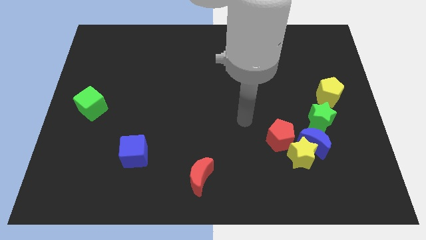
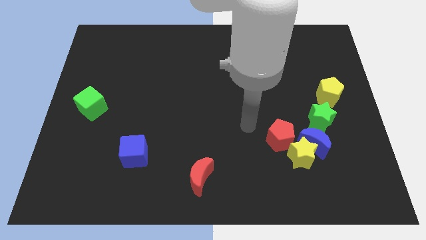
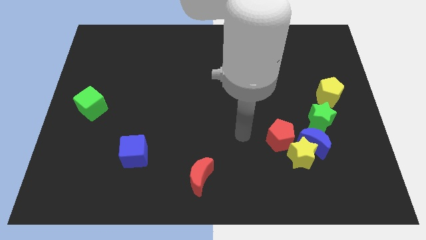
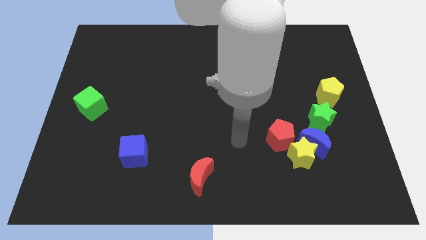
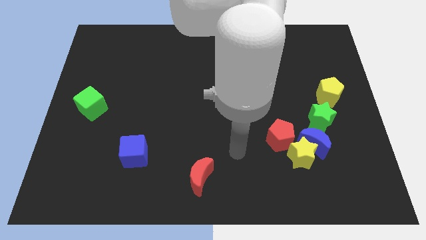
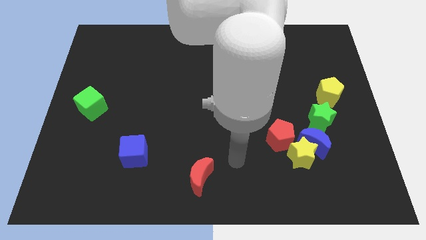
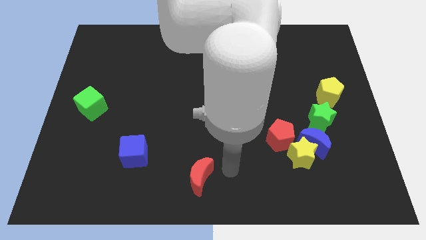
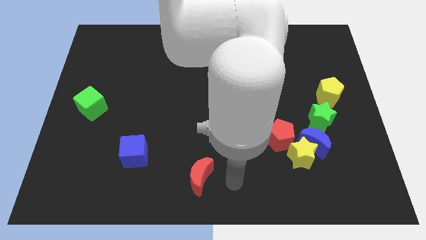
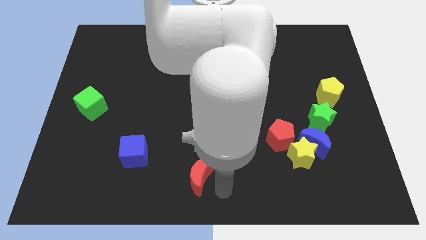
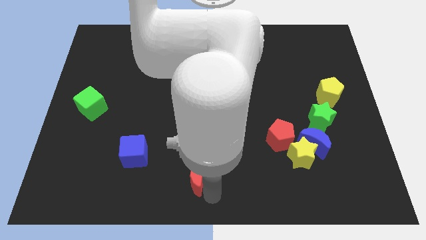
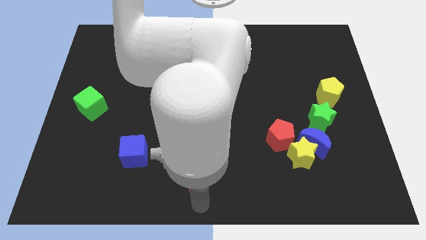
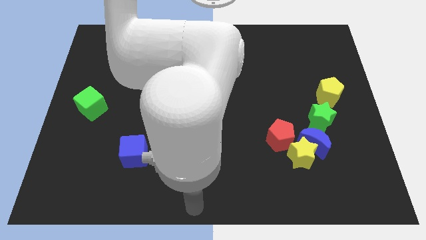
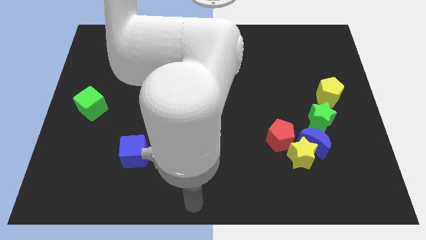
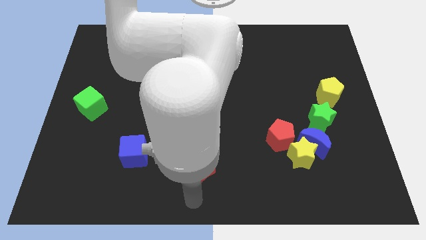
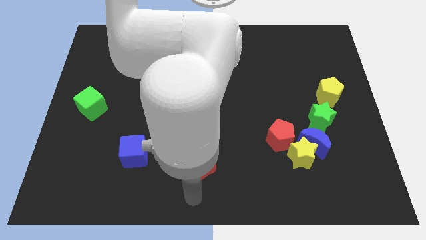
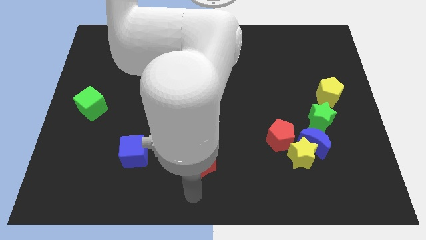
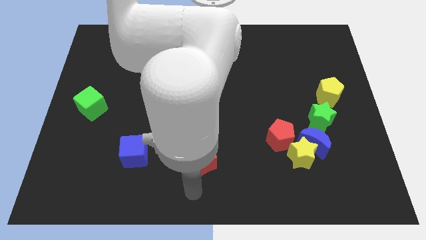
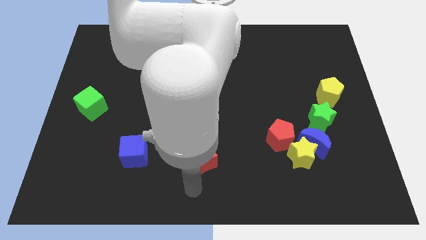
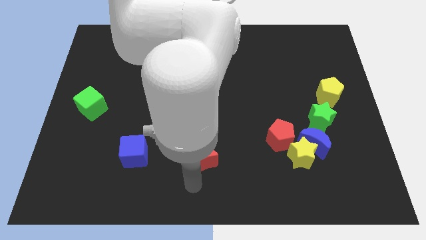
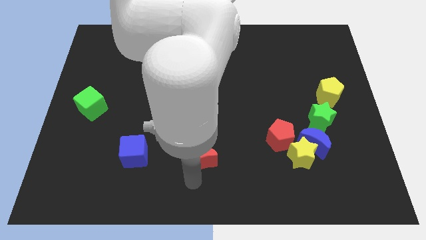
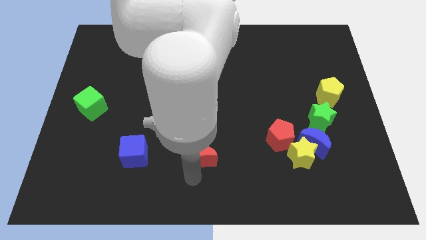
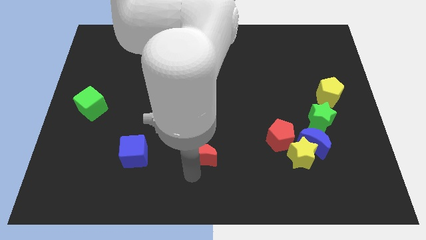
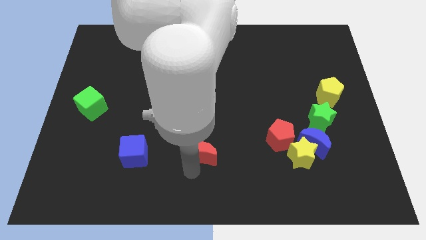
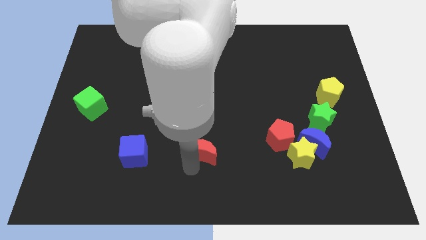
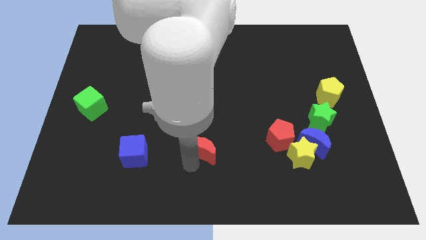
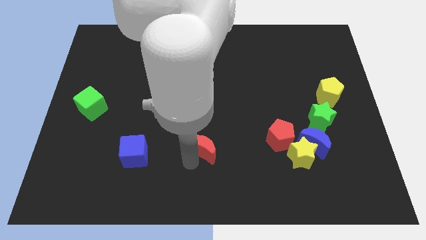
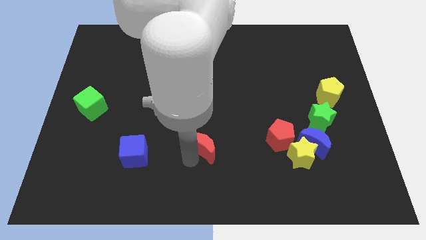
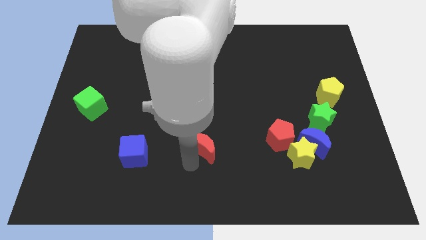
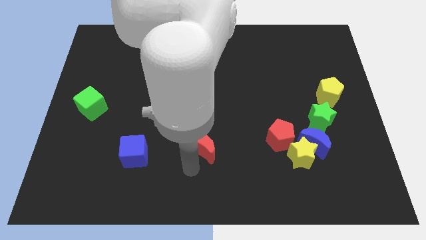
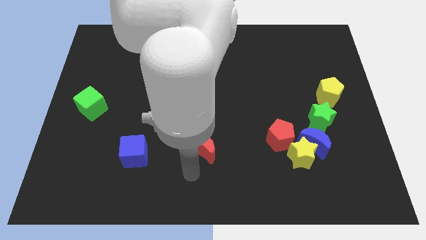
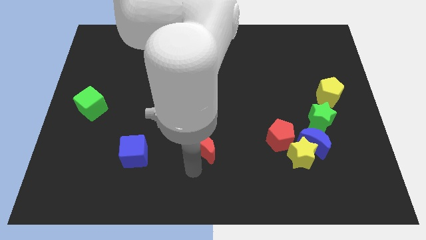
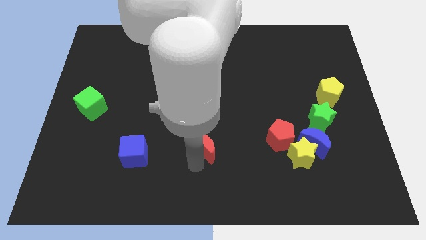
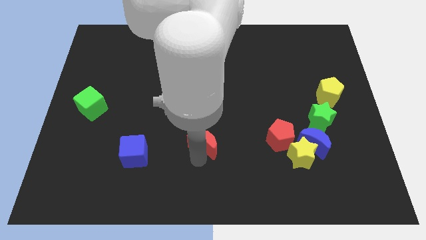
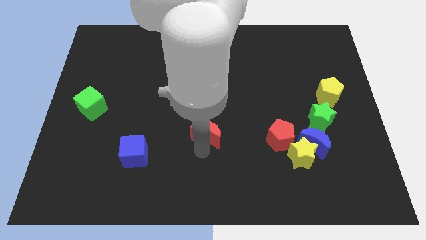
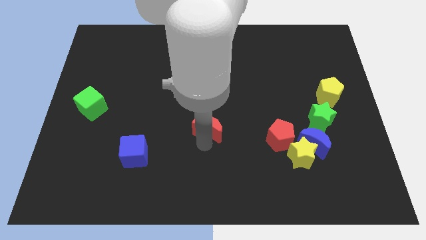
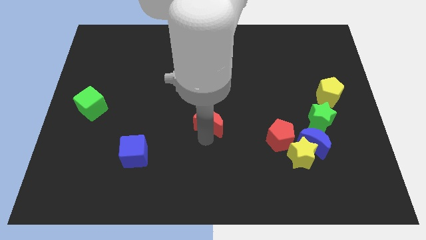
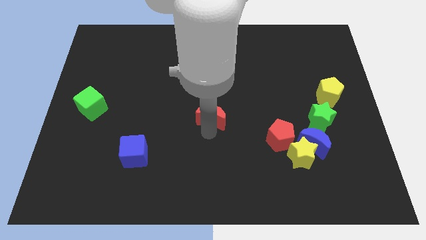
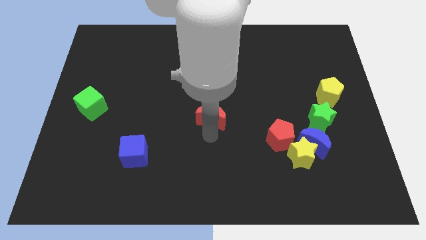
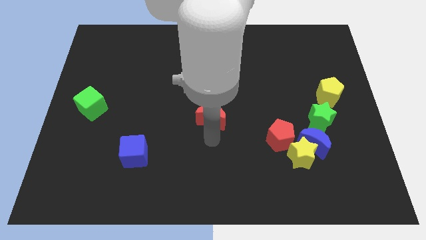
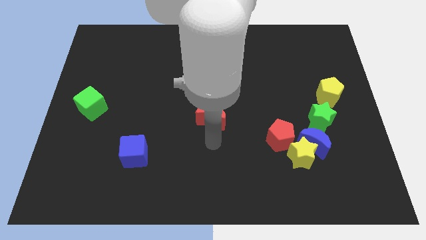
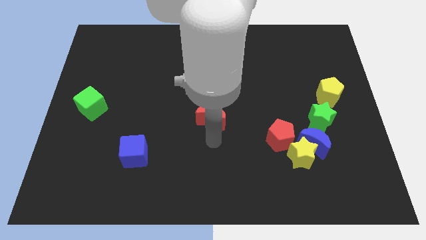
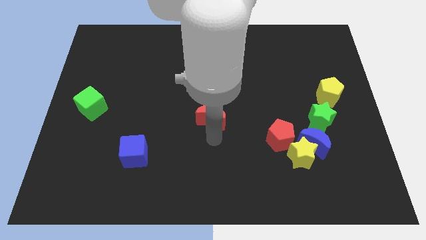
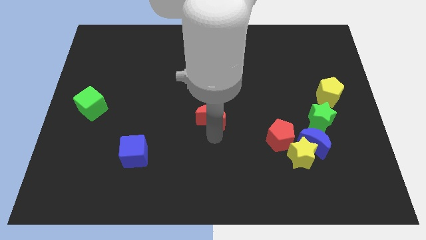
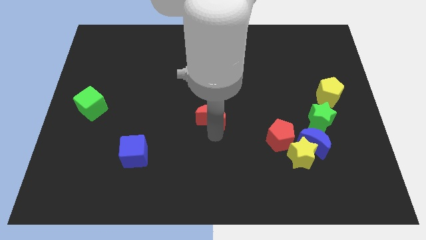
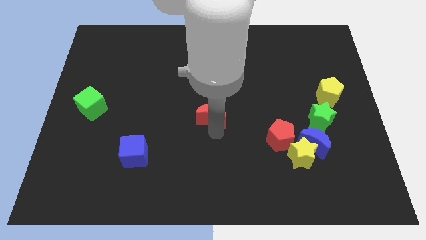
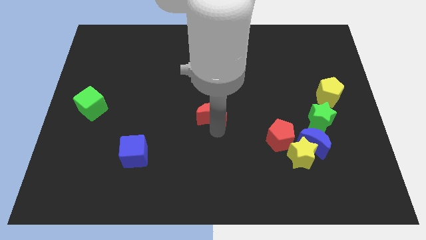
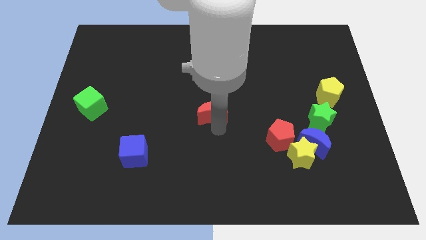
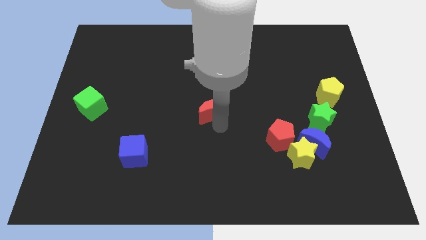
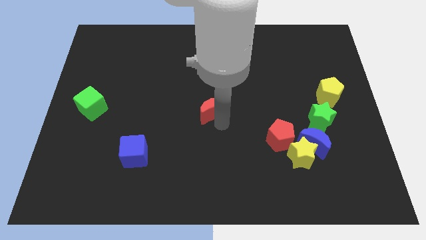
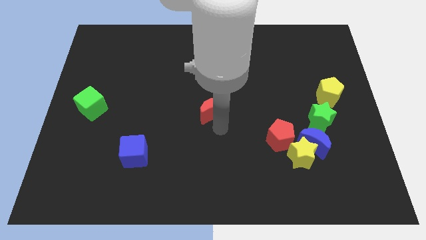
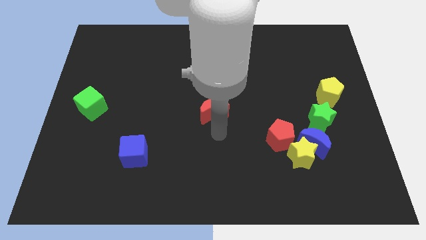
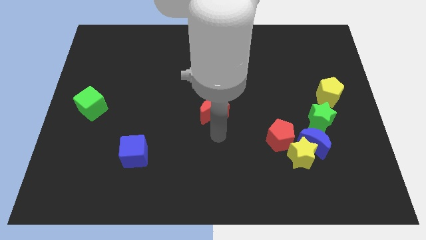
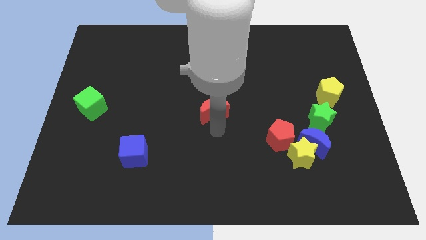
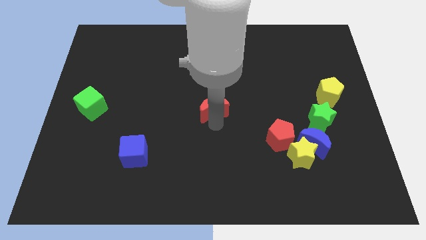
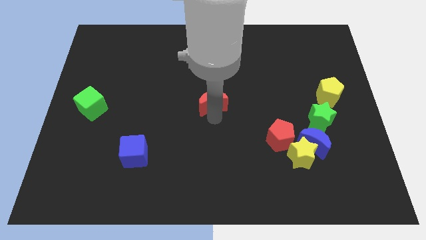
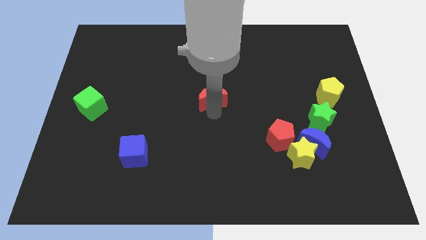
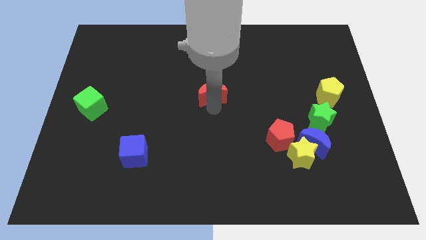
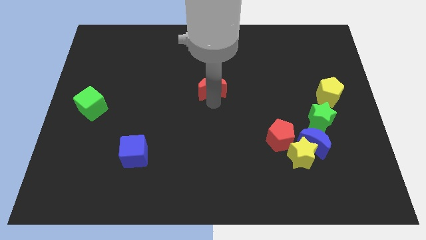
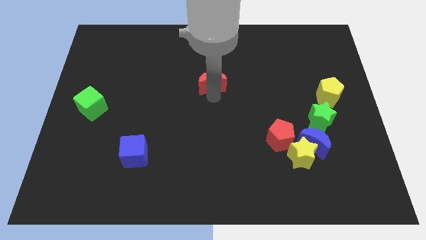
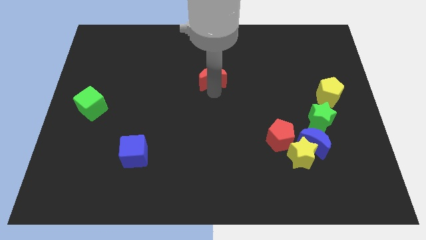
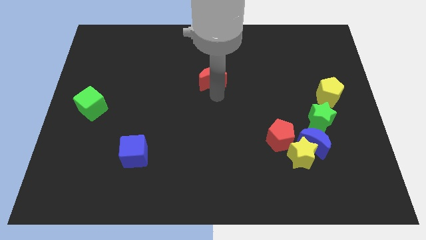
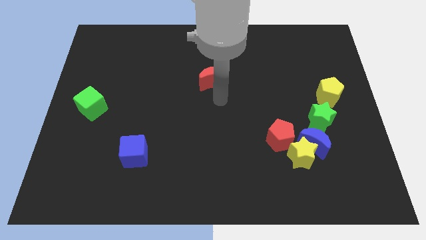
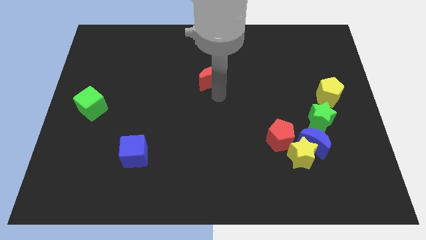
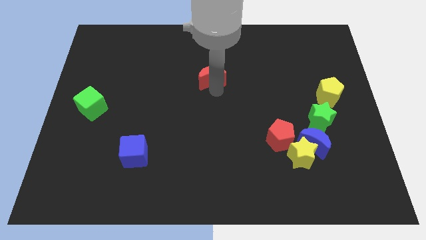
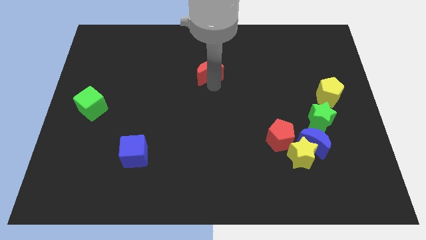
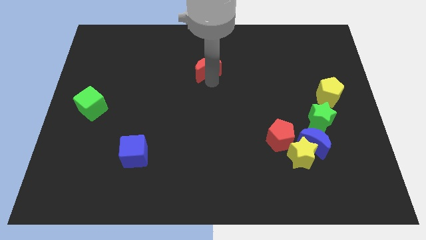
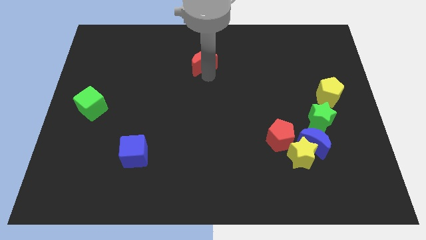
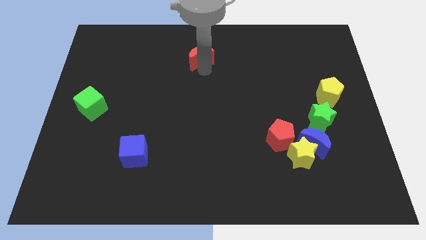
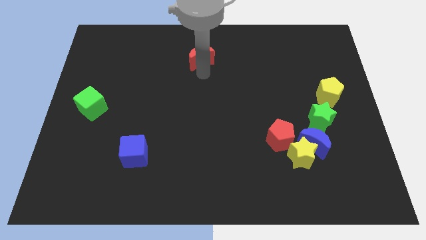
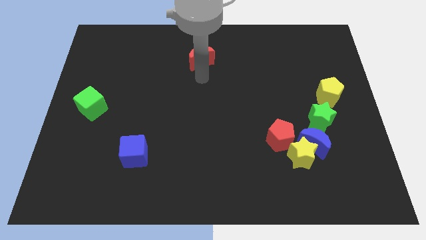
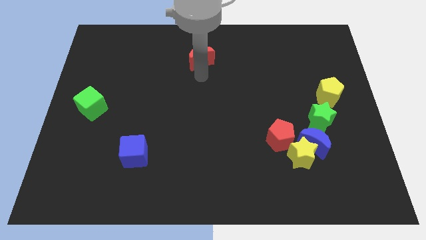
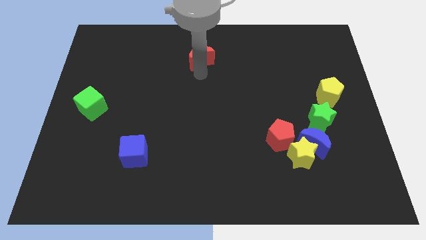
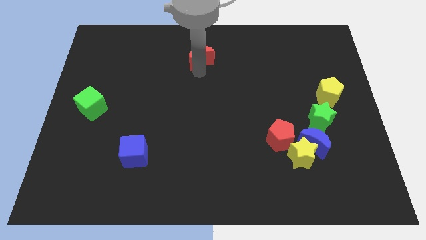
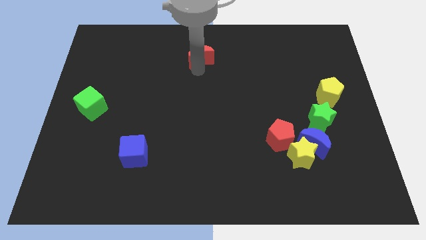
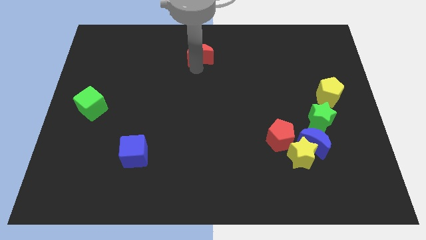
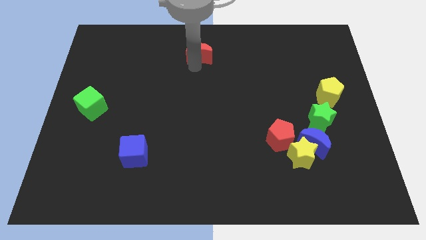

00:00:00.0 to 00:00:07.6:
push the red moon to the towards your base
